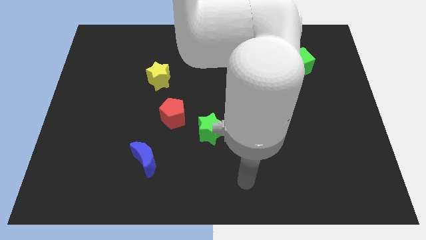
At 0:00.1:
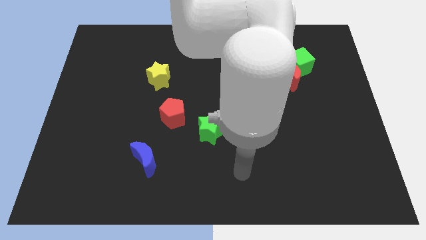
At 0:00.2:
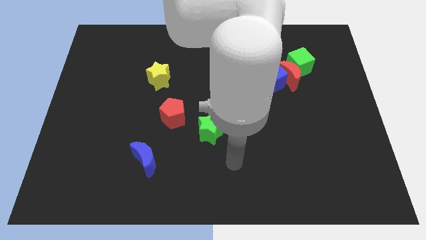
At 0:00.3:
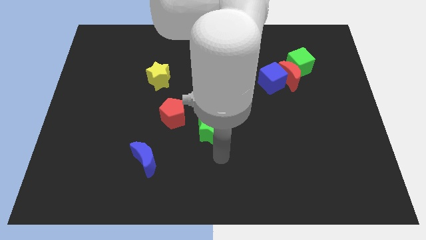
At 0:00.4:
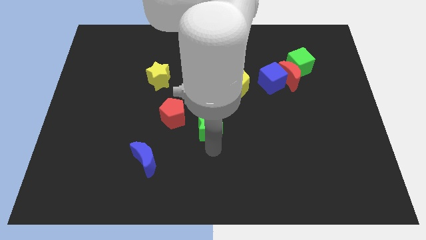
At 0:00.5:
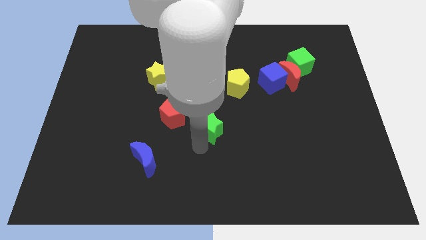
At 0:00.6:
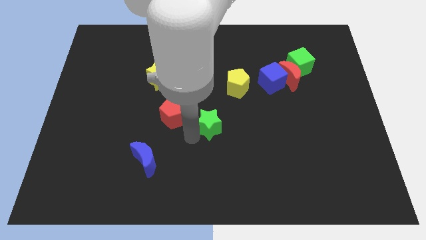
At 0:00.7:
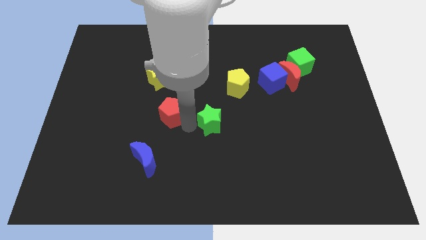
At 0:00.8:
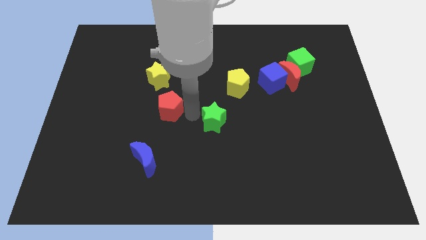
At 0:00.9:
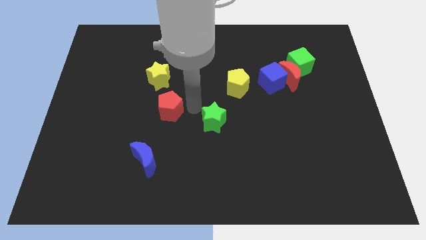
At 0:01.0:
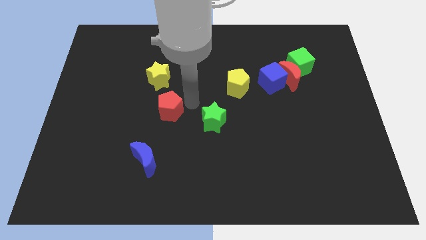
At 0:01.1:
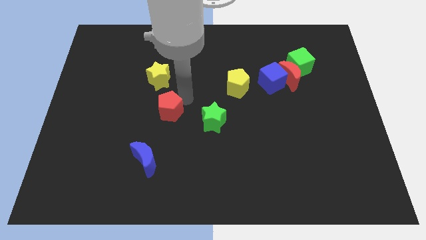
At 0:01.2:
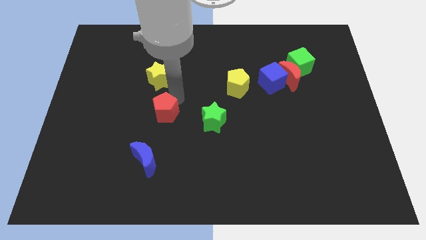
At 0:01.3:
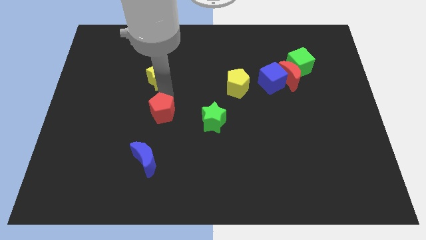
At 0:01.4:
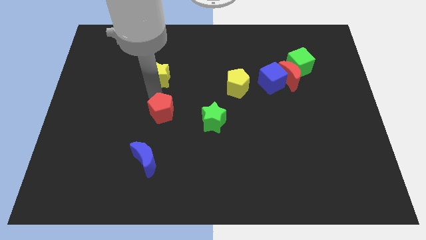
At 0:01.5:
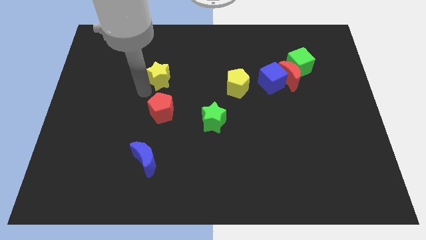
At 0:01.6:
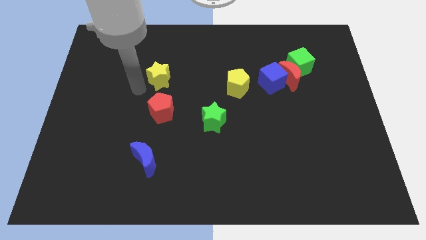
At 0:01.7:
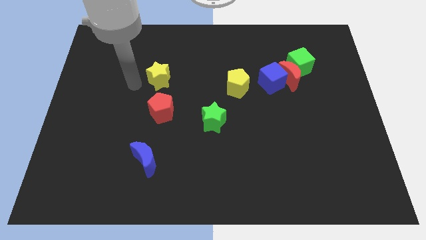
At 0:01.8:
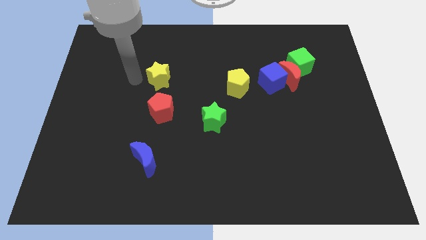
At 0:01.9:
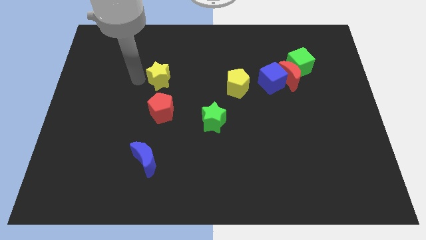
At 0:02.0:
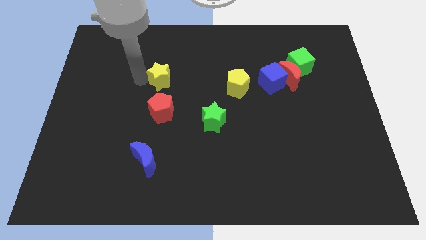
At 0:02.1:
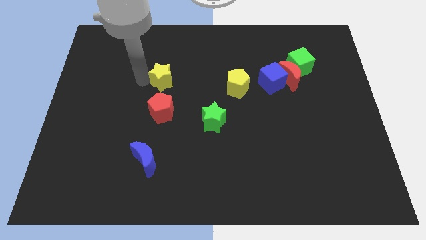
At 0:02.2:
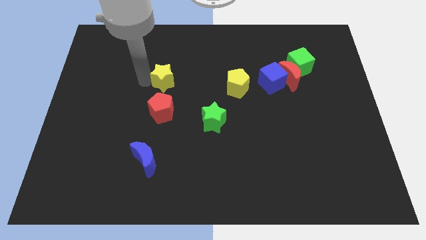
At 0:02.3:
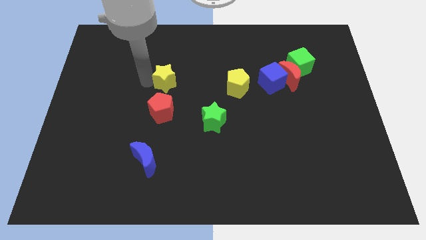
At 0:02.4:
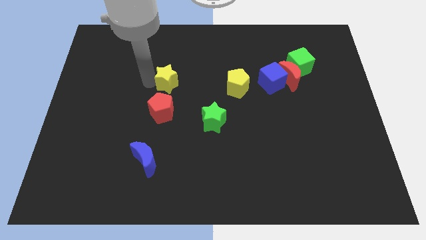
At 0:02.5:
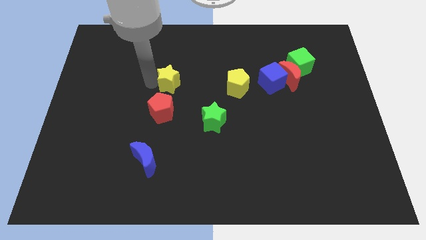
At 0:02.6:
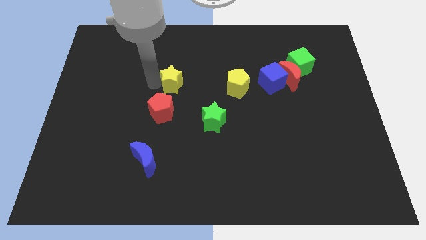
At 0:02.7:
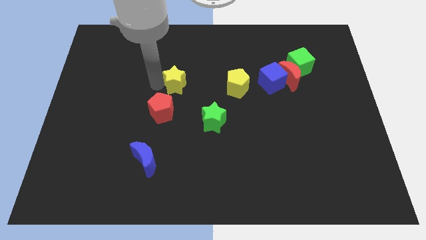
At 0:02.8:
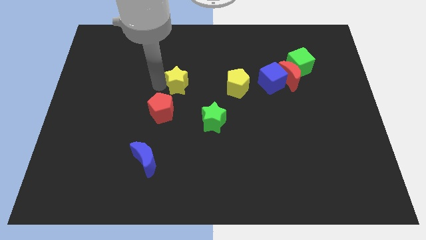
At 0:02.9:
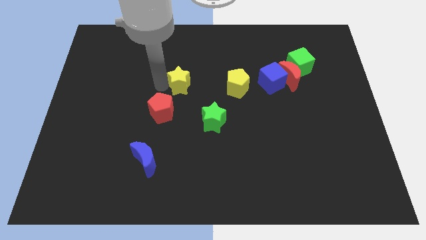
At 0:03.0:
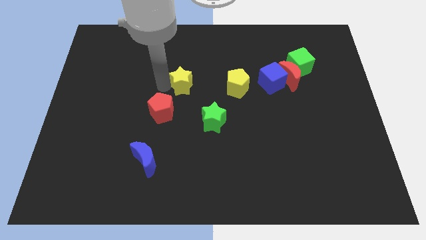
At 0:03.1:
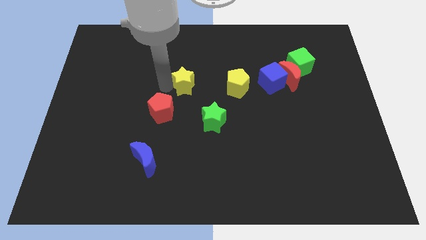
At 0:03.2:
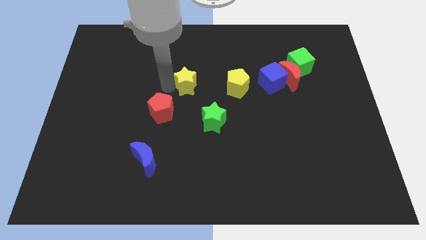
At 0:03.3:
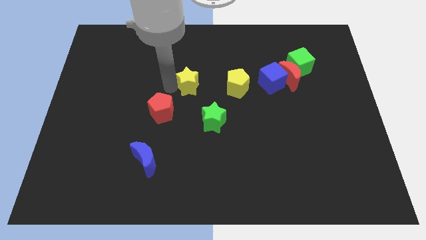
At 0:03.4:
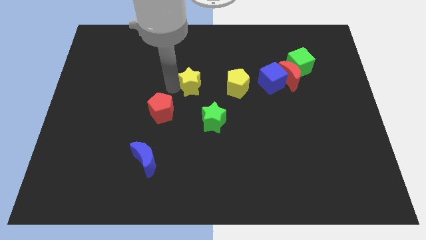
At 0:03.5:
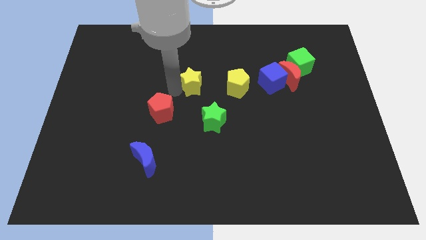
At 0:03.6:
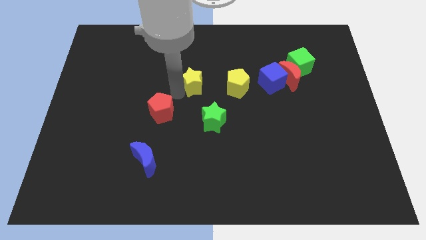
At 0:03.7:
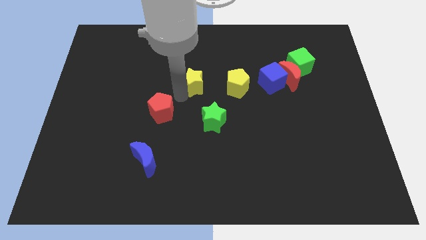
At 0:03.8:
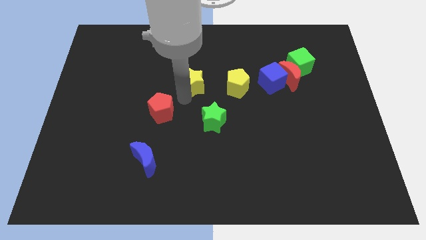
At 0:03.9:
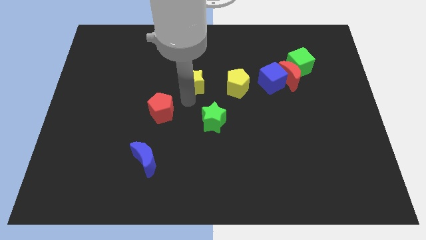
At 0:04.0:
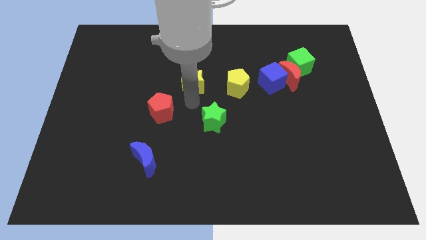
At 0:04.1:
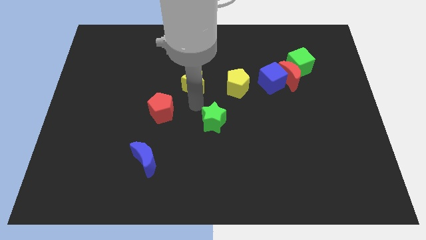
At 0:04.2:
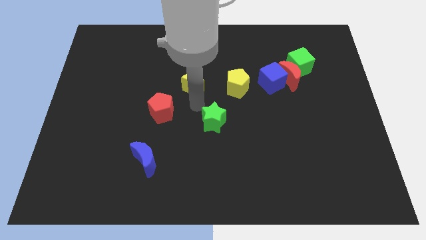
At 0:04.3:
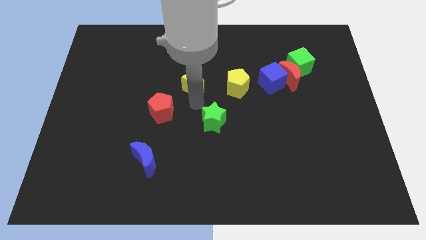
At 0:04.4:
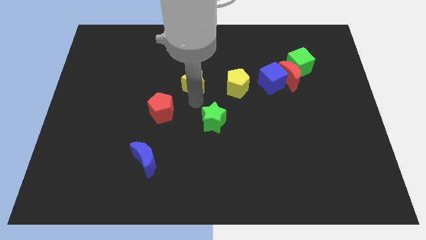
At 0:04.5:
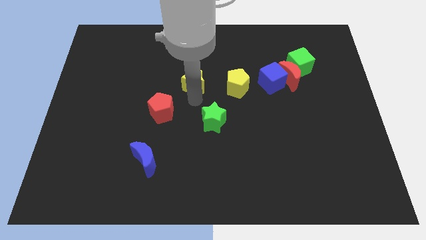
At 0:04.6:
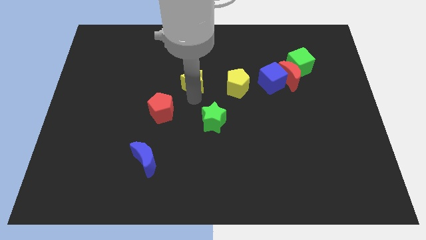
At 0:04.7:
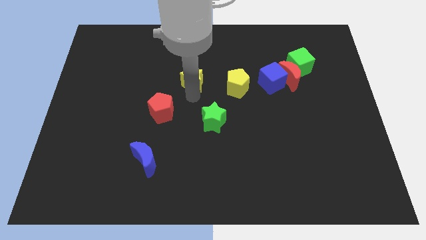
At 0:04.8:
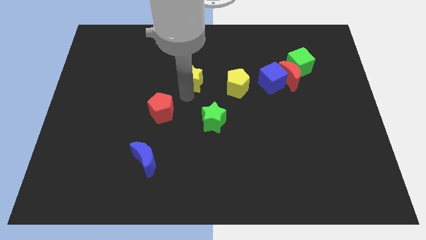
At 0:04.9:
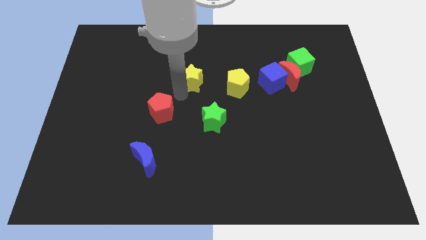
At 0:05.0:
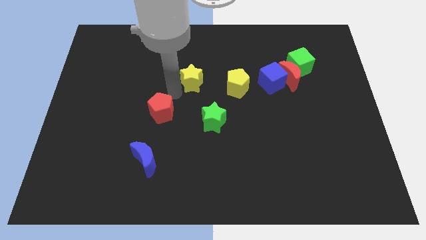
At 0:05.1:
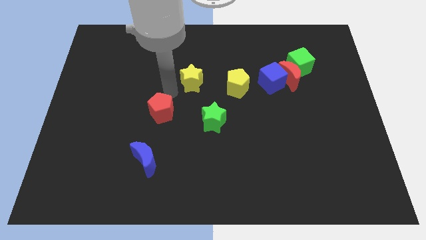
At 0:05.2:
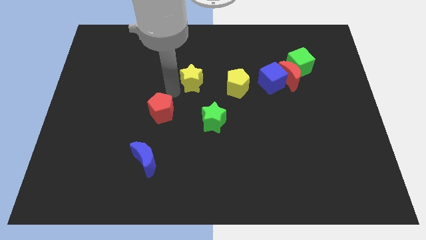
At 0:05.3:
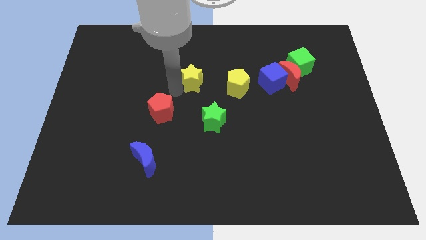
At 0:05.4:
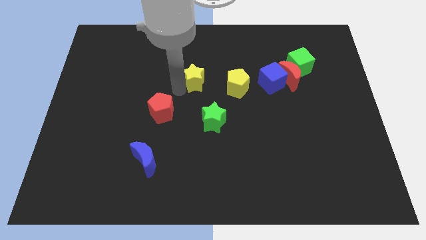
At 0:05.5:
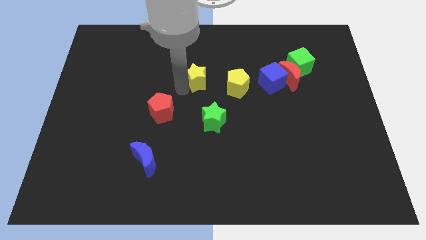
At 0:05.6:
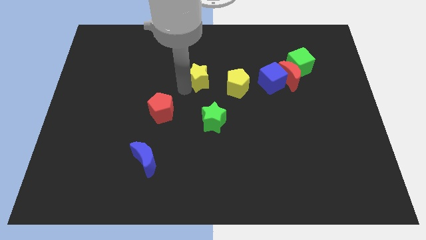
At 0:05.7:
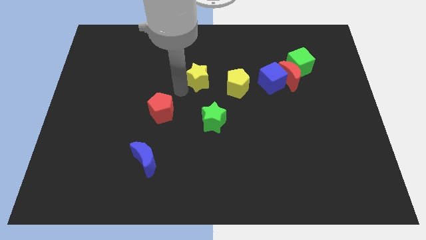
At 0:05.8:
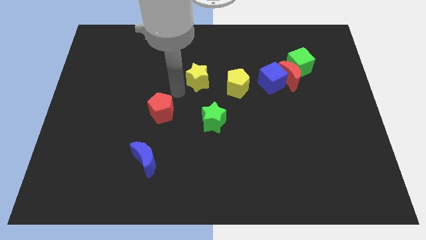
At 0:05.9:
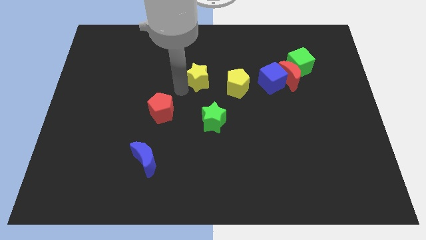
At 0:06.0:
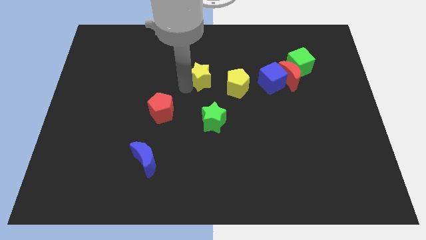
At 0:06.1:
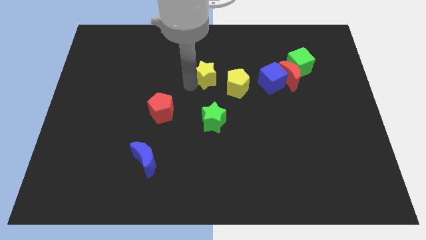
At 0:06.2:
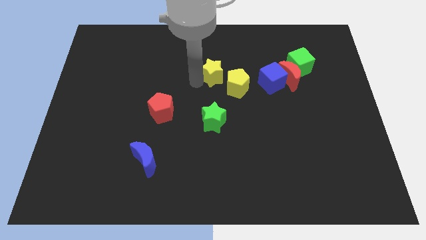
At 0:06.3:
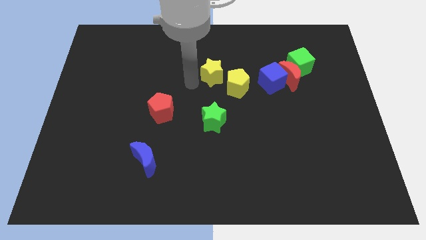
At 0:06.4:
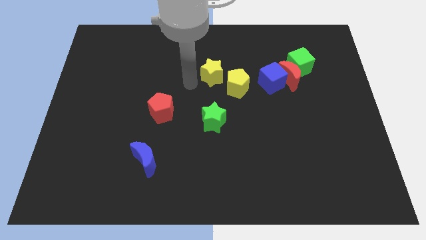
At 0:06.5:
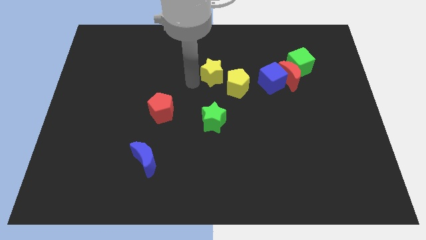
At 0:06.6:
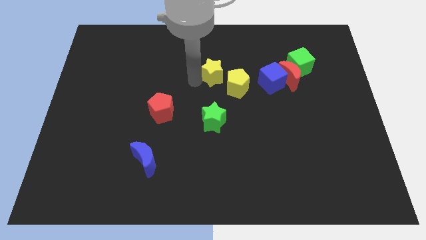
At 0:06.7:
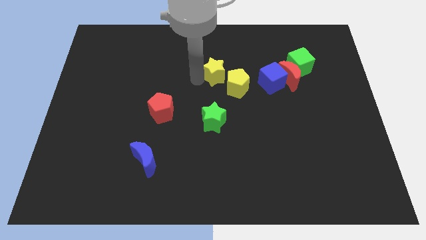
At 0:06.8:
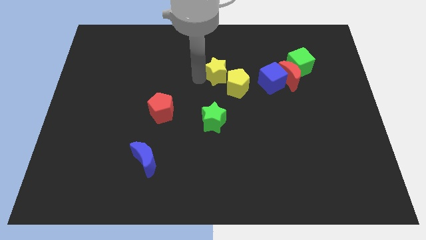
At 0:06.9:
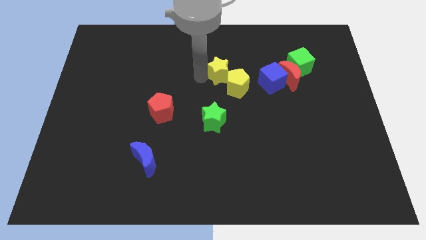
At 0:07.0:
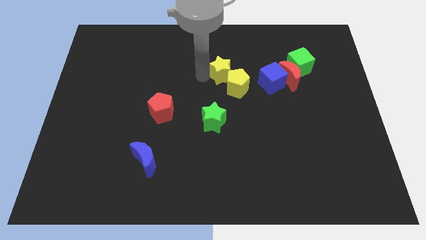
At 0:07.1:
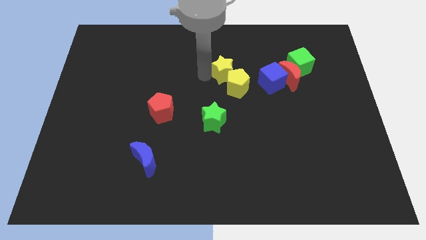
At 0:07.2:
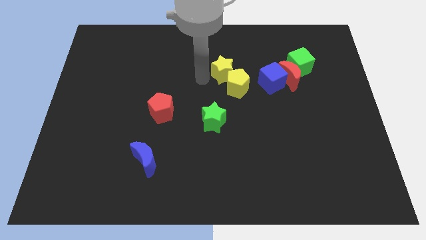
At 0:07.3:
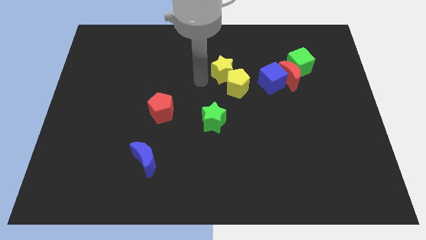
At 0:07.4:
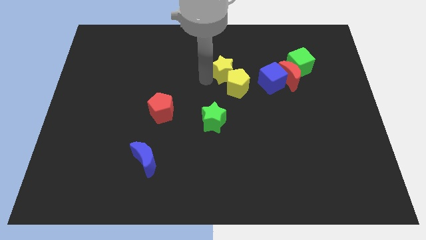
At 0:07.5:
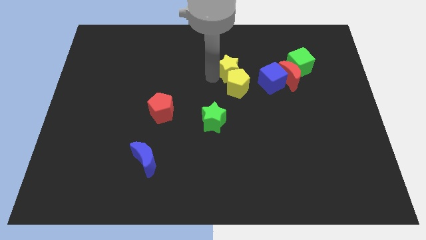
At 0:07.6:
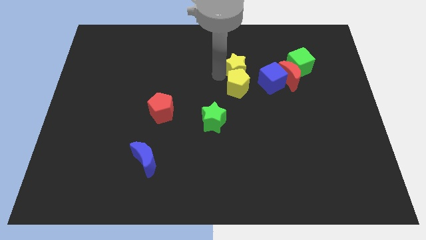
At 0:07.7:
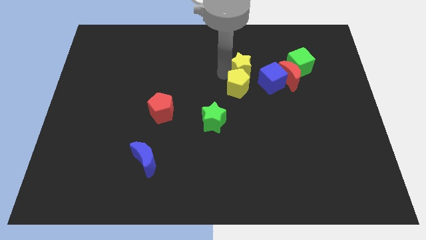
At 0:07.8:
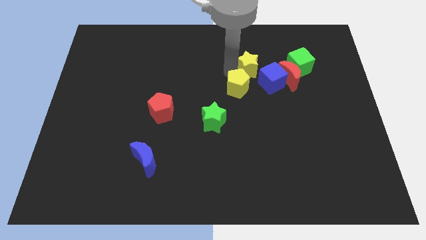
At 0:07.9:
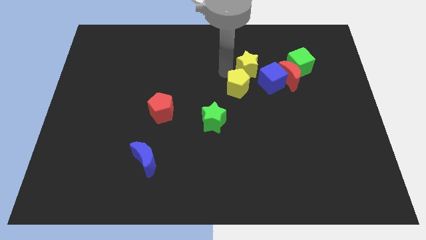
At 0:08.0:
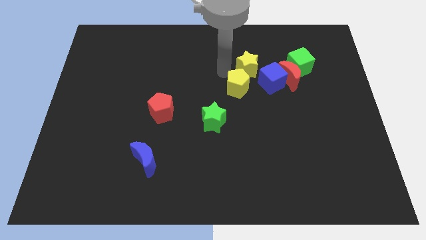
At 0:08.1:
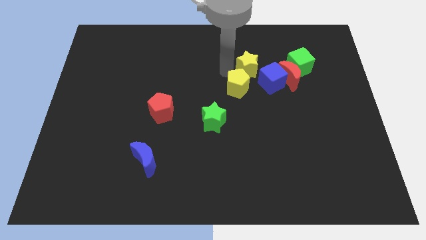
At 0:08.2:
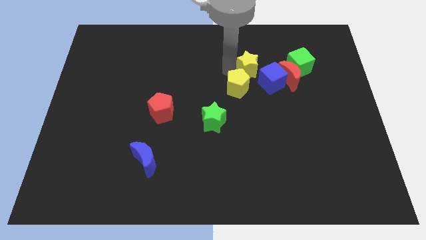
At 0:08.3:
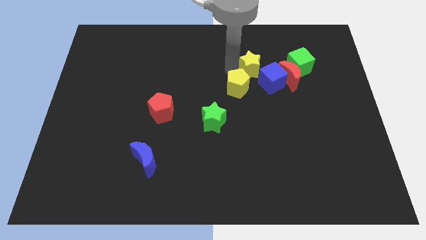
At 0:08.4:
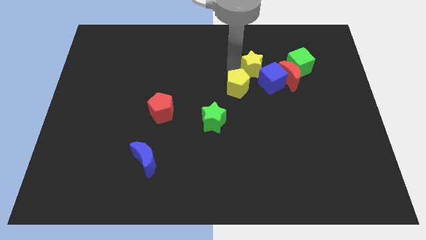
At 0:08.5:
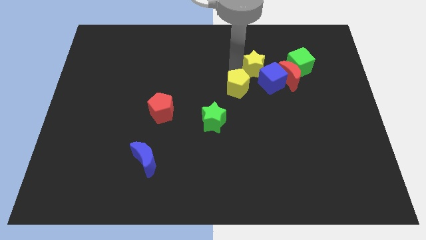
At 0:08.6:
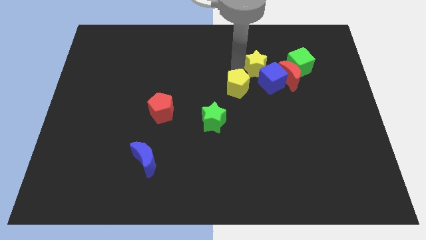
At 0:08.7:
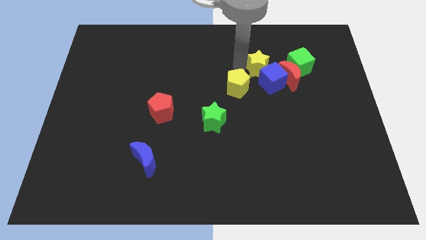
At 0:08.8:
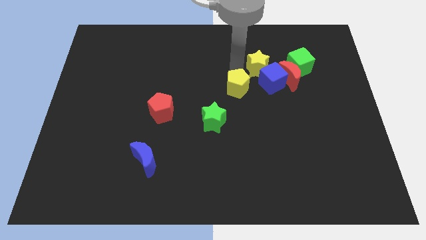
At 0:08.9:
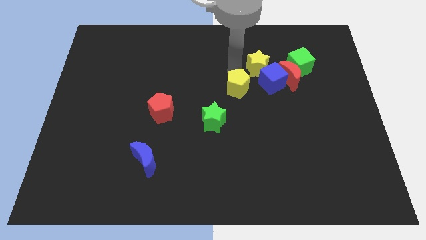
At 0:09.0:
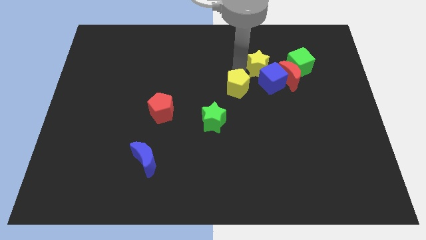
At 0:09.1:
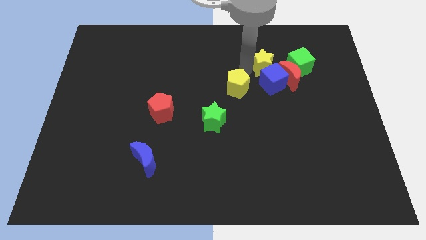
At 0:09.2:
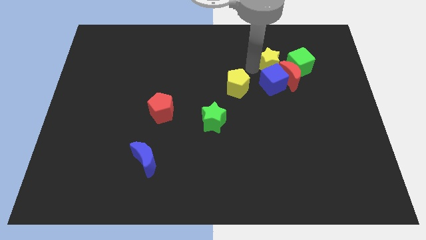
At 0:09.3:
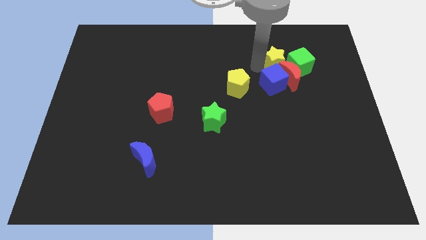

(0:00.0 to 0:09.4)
slide the yellow star to the green cube
